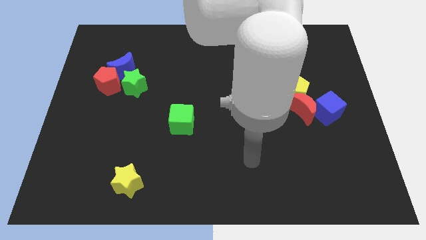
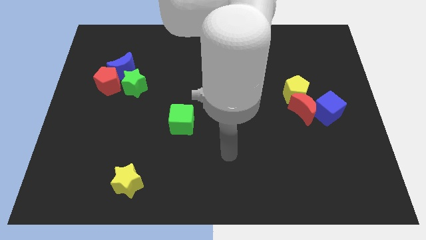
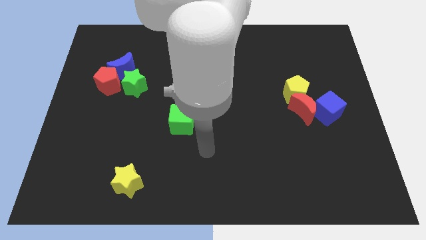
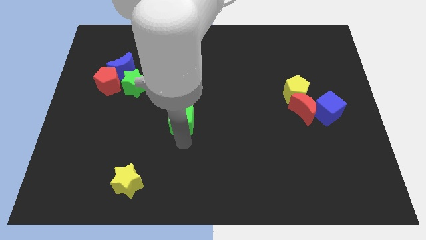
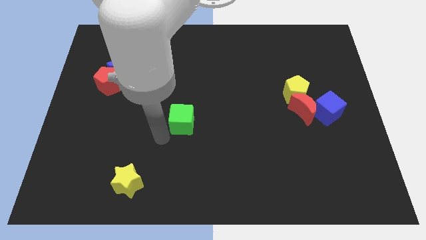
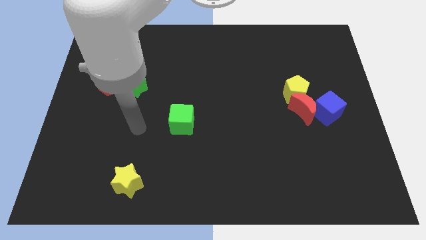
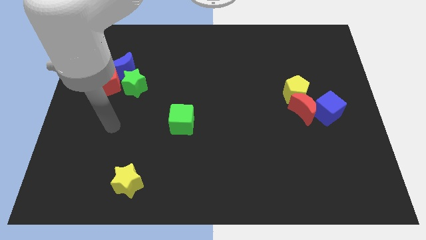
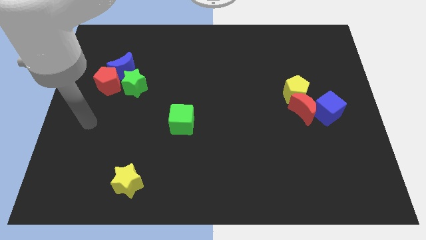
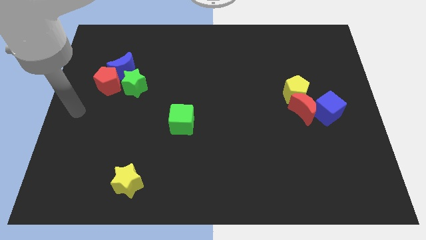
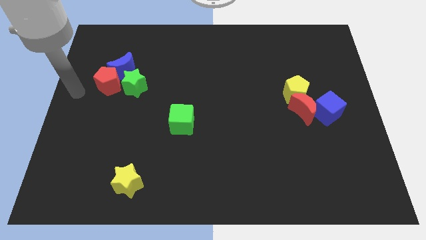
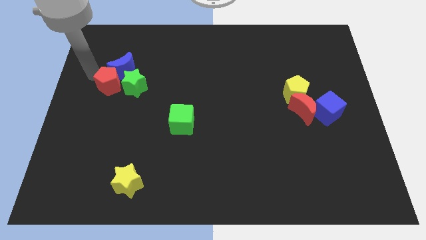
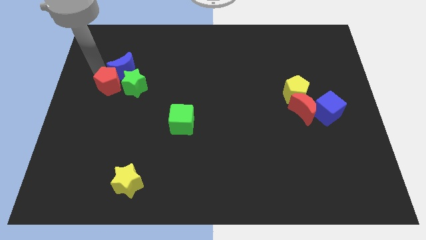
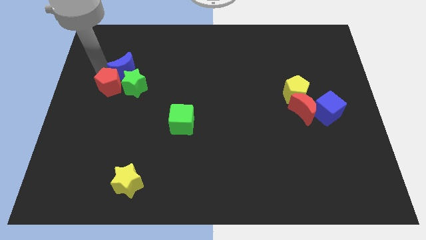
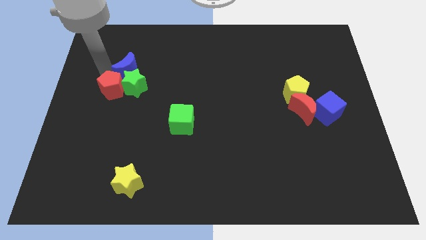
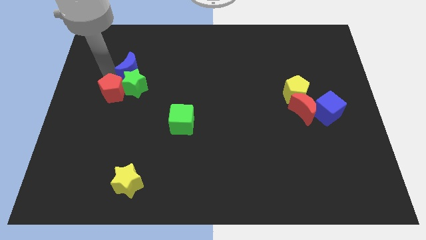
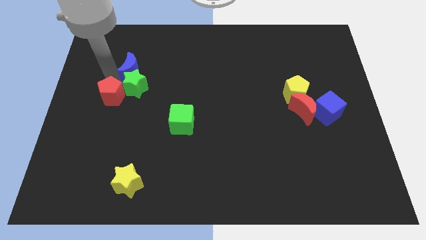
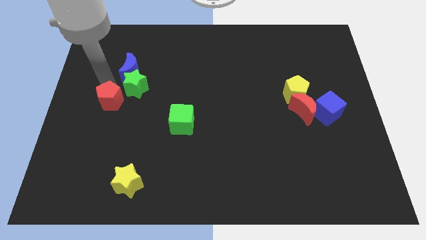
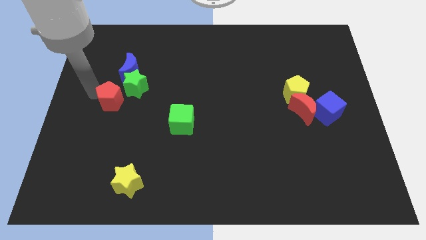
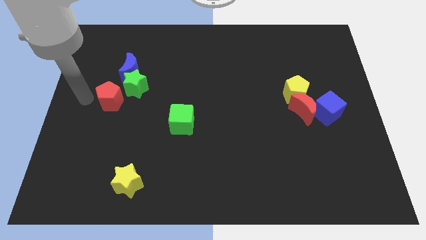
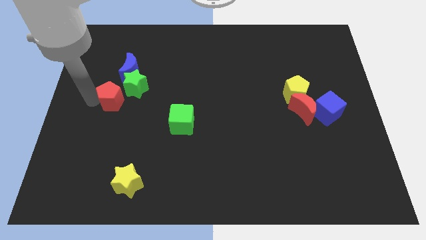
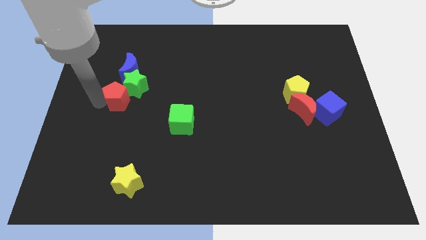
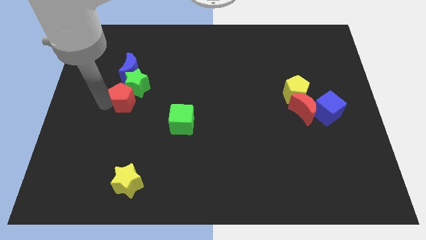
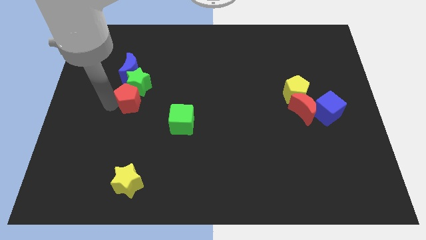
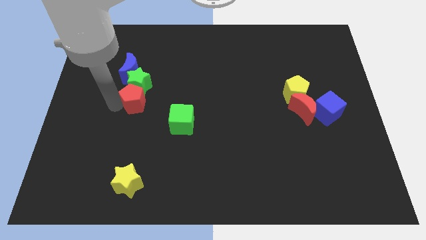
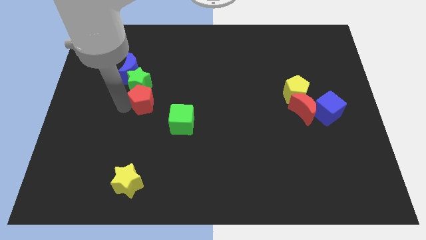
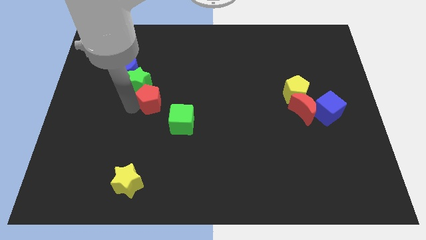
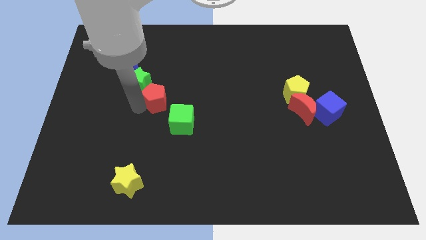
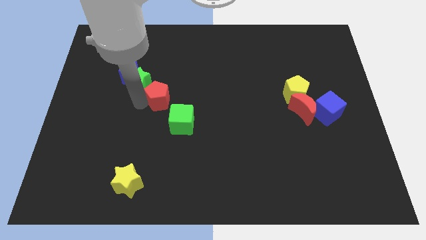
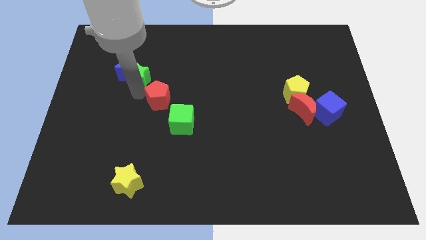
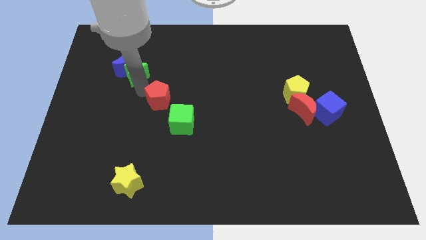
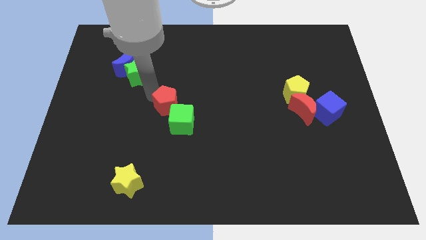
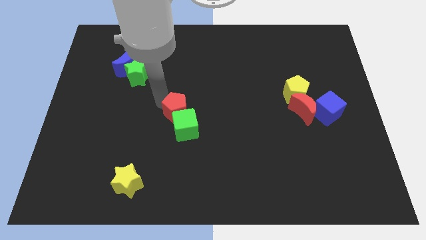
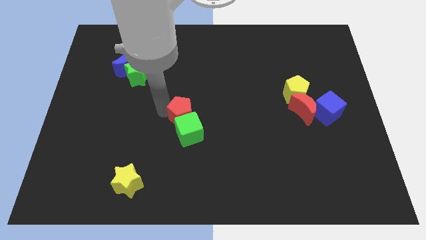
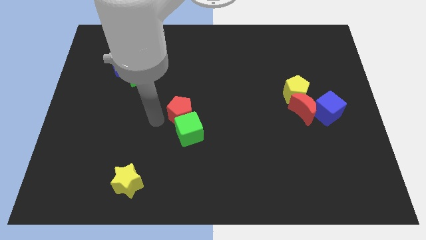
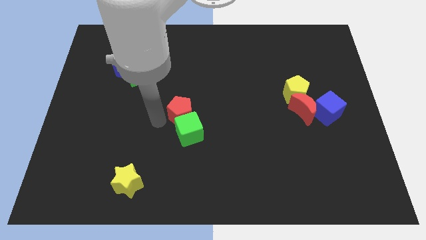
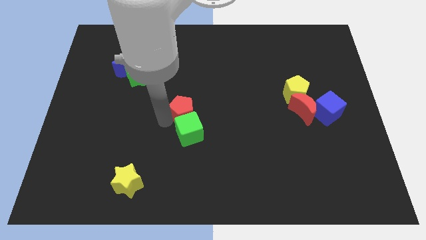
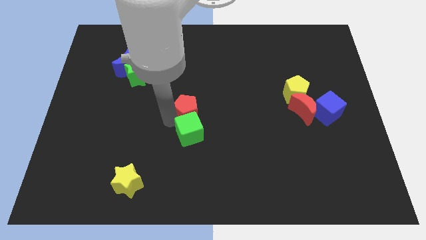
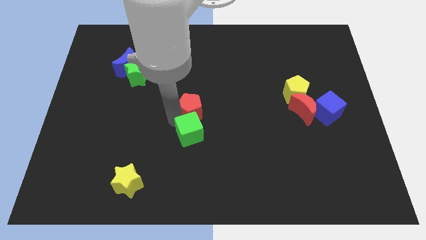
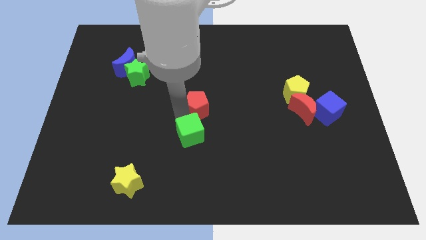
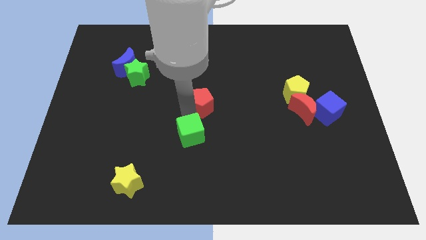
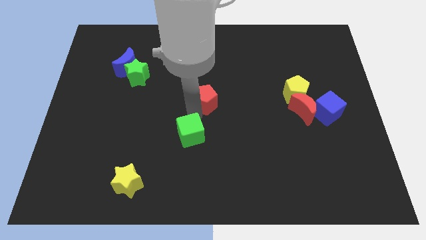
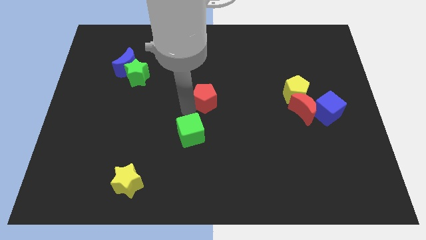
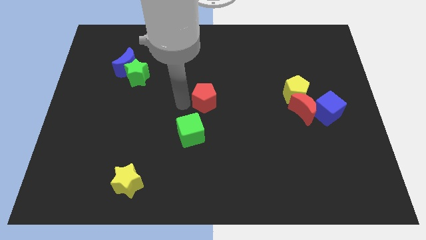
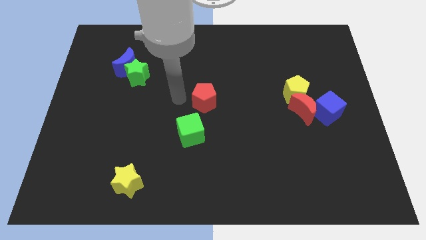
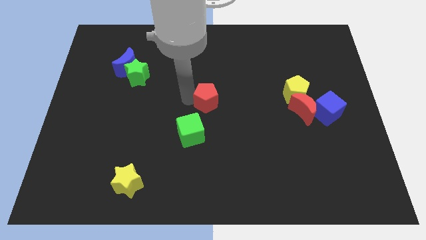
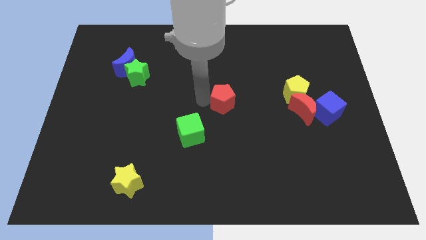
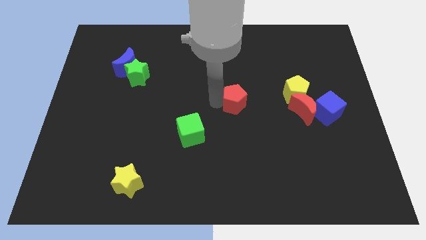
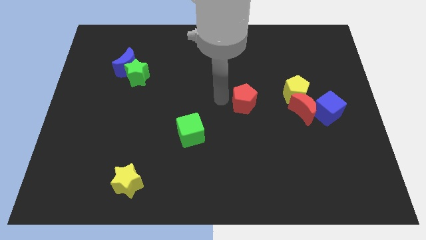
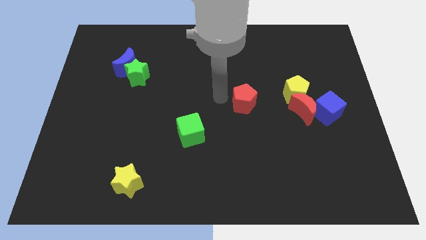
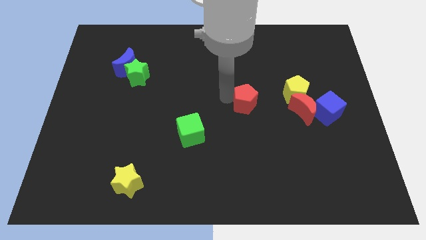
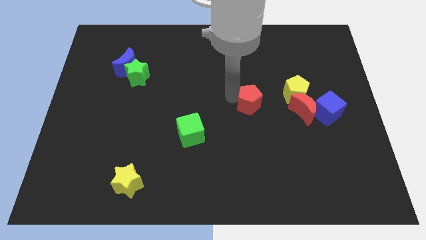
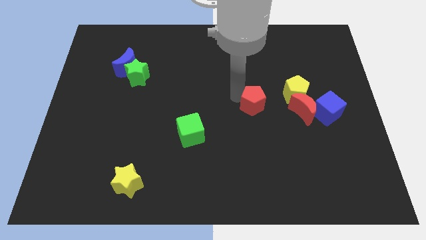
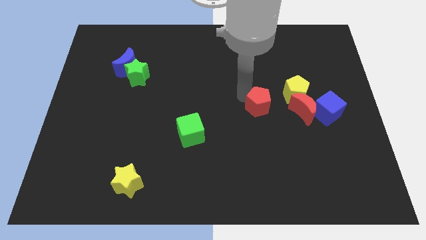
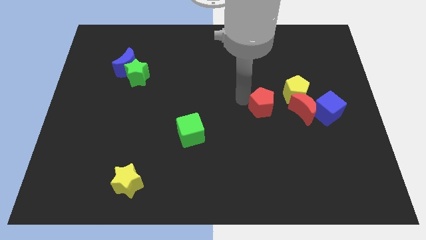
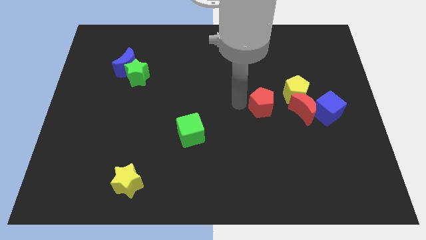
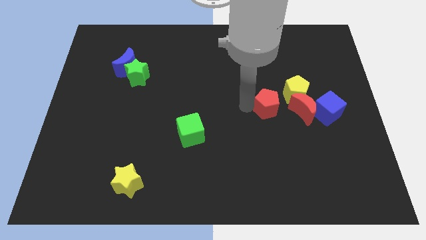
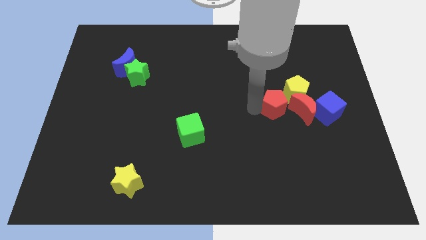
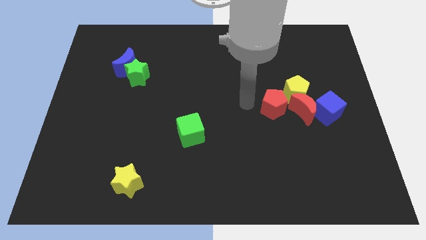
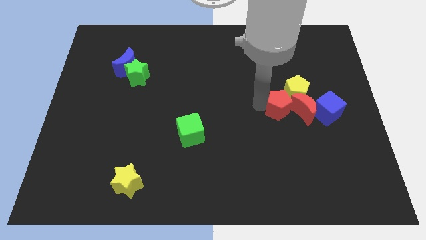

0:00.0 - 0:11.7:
slide the red pentagon next to the red moon

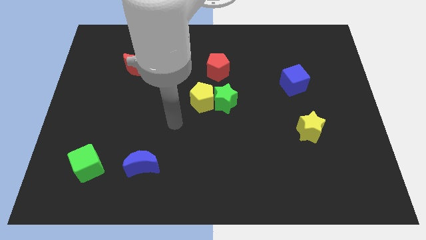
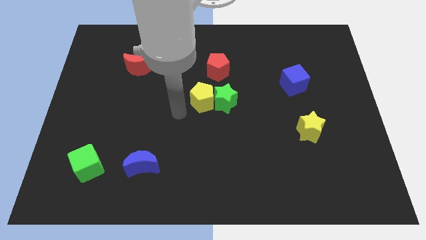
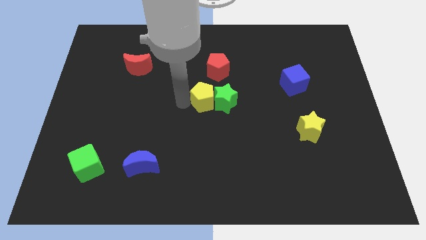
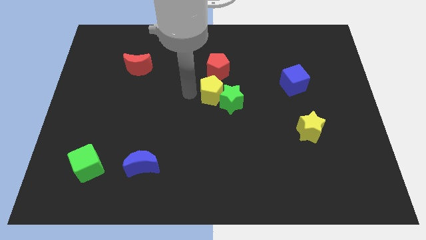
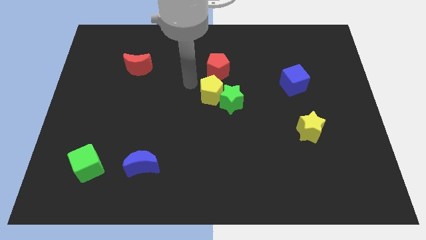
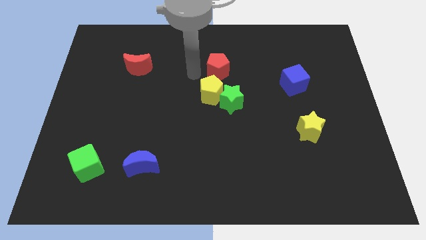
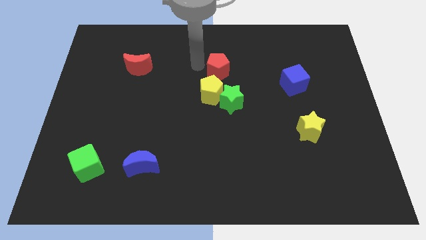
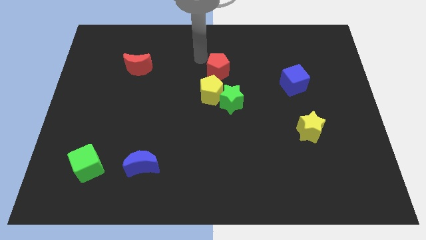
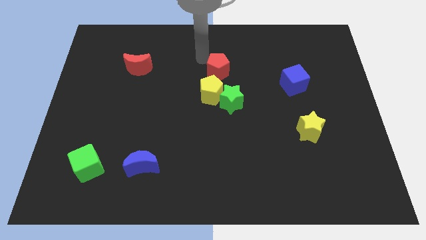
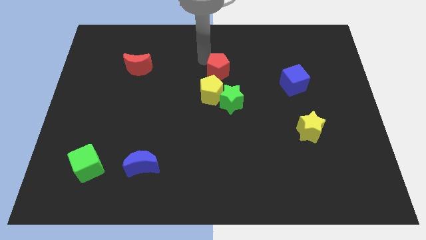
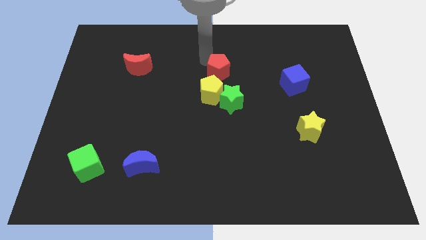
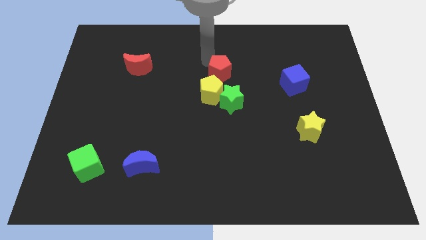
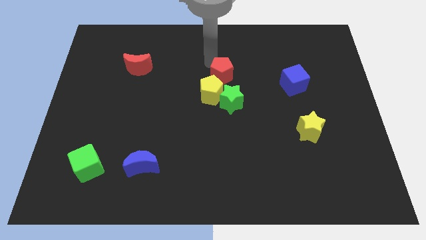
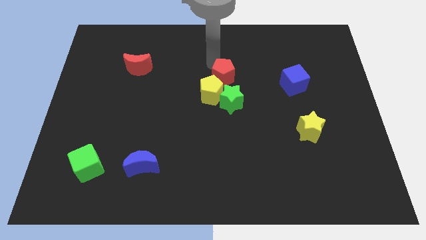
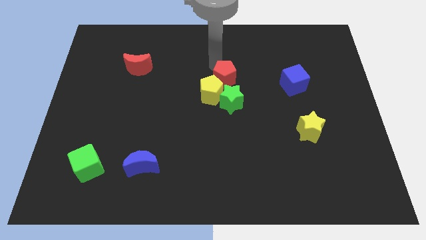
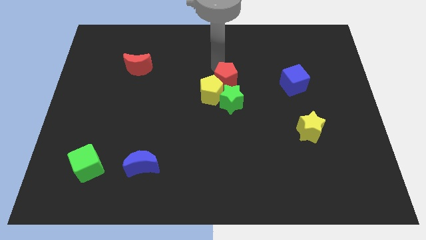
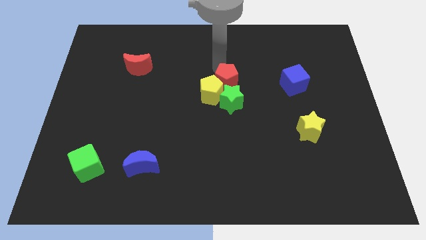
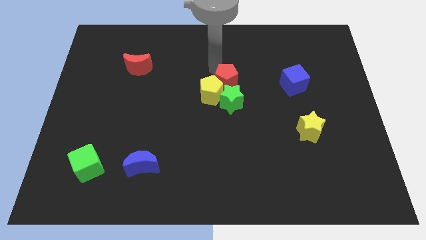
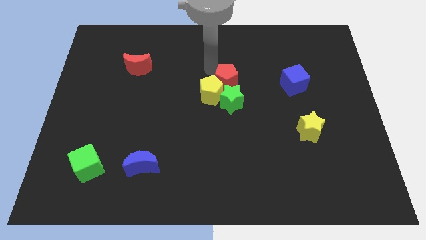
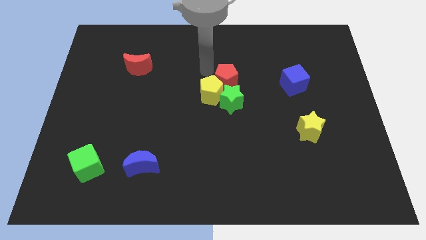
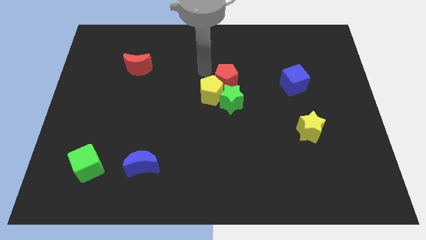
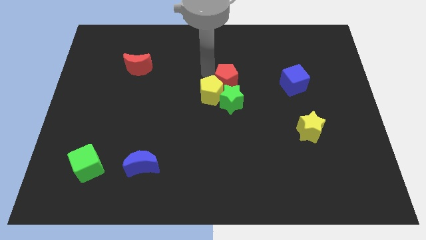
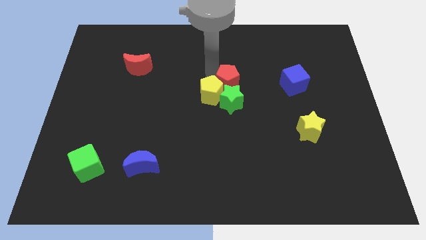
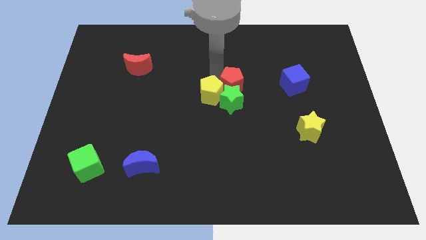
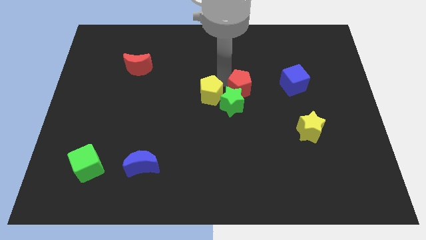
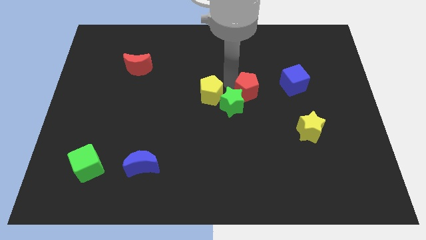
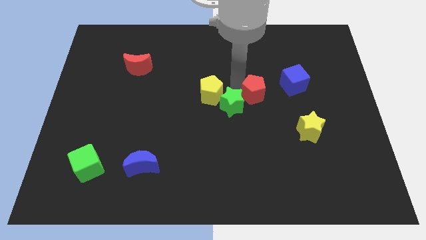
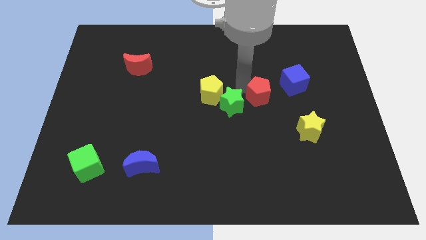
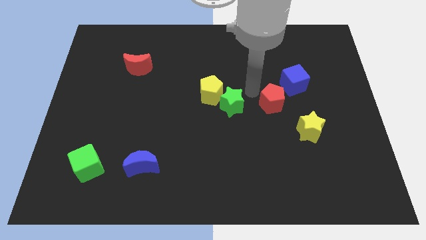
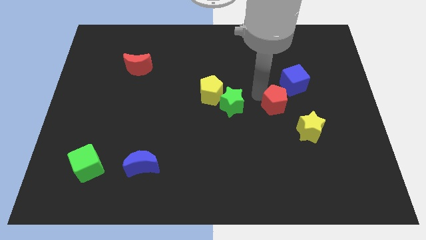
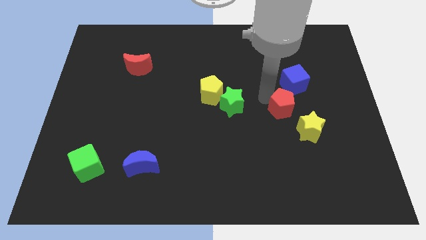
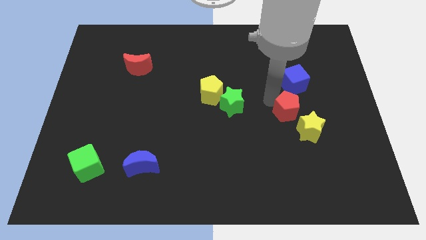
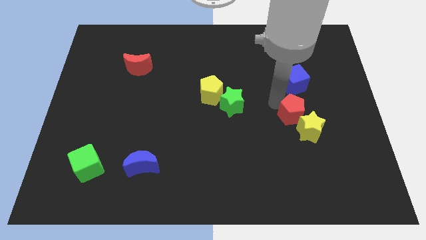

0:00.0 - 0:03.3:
slide the red pentagon next to the yellow star
